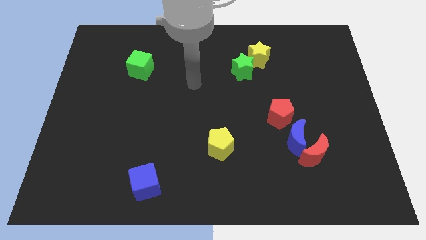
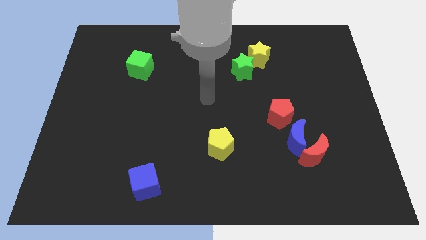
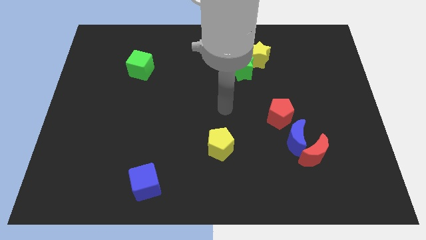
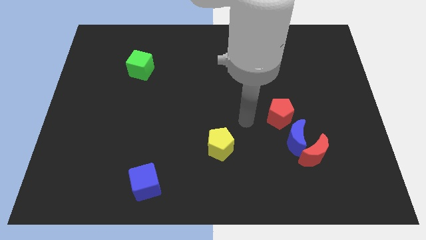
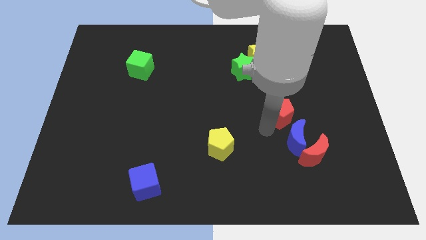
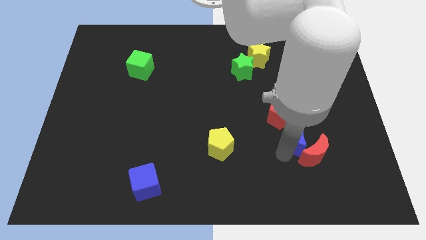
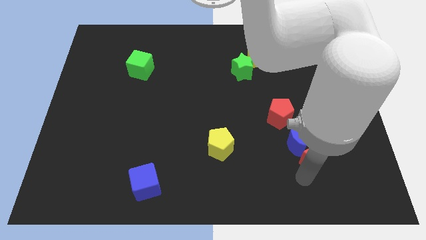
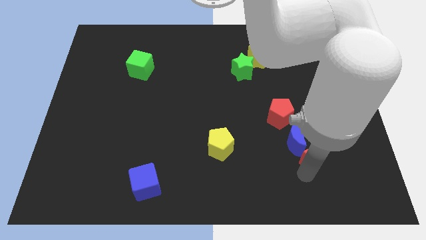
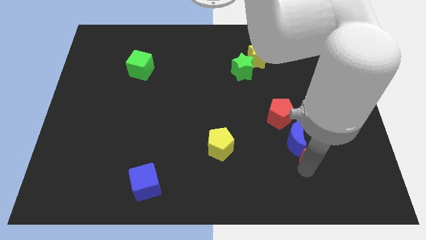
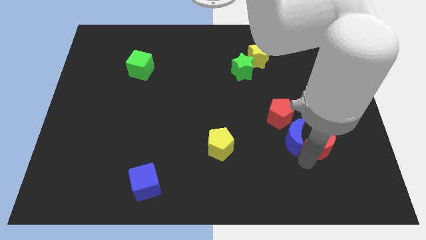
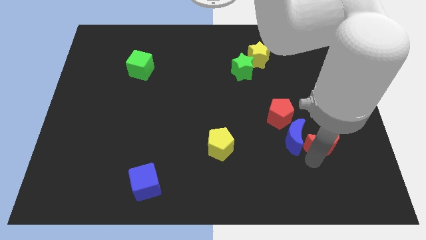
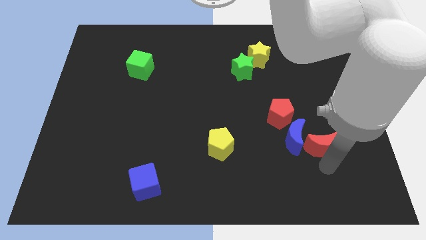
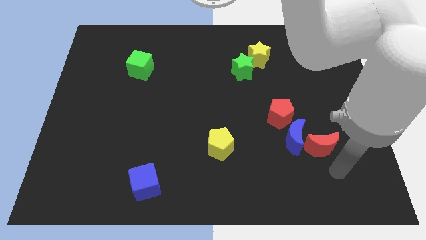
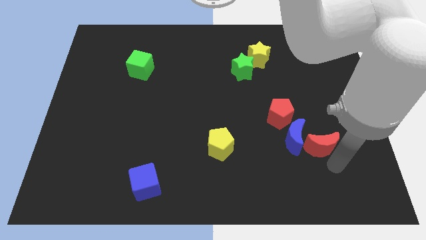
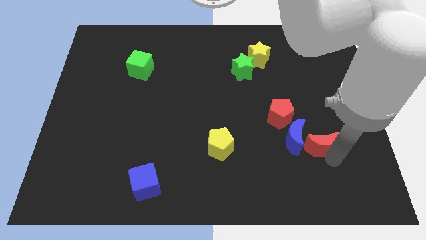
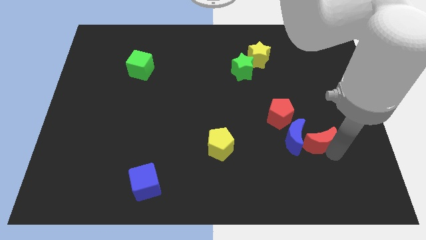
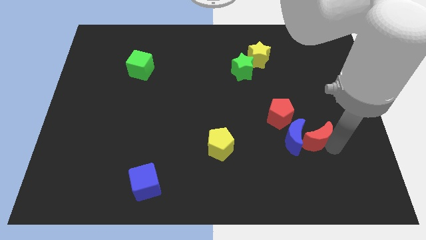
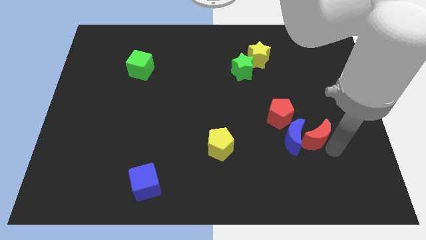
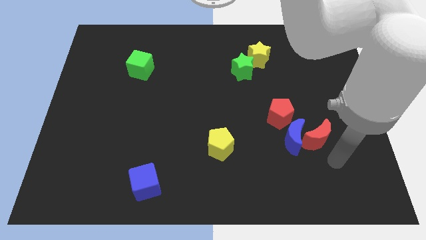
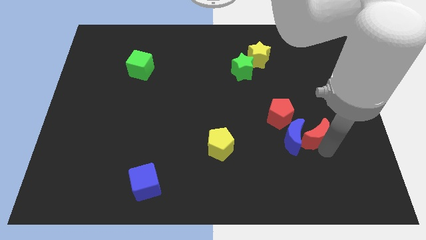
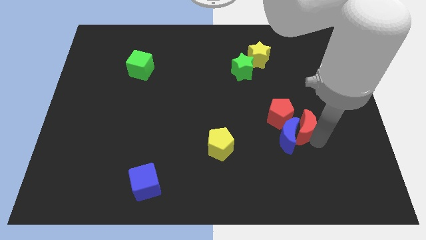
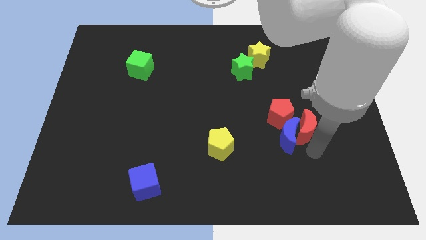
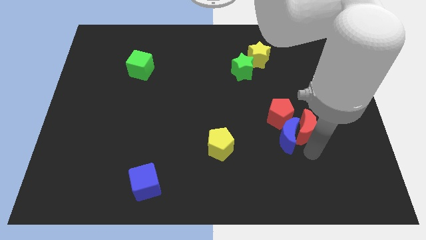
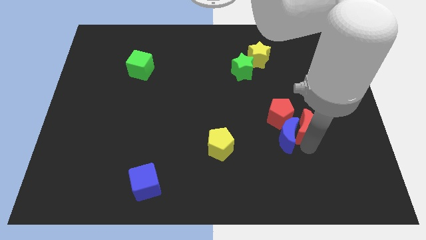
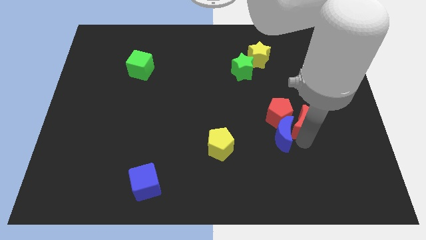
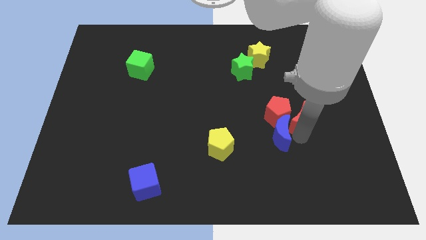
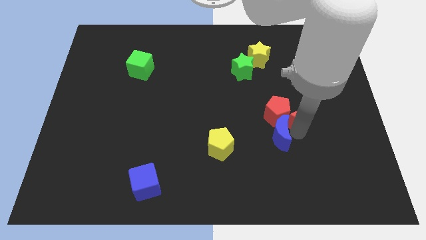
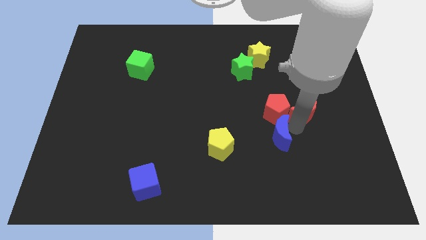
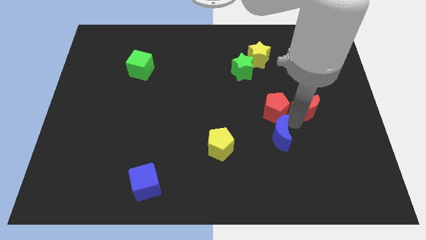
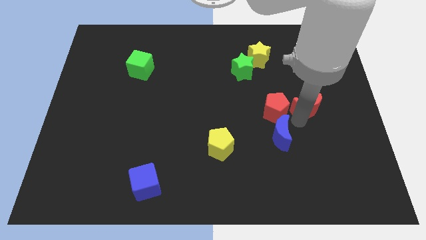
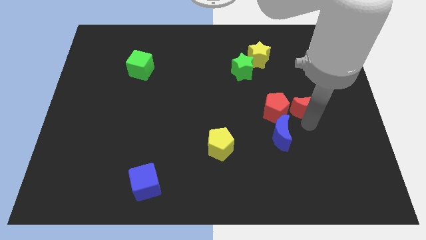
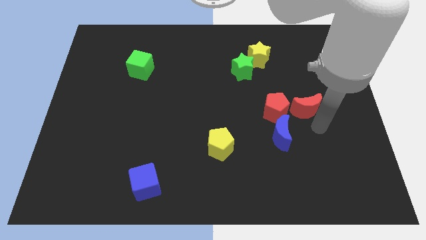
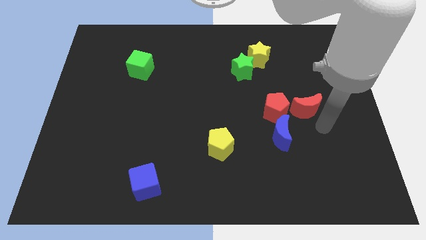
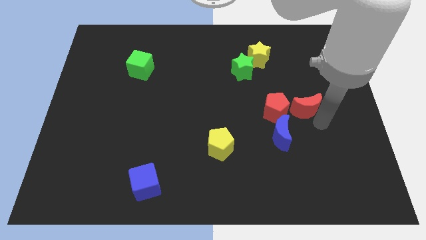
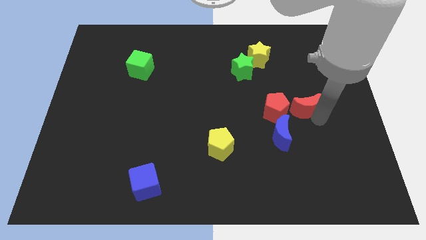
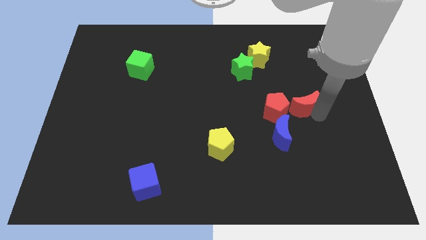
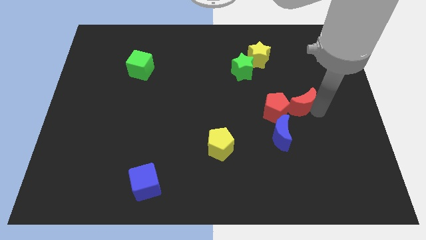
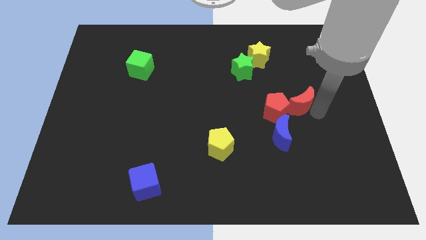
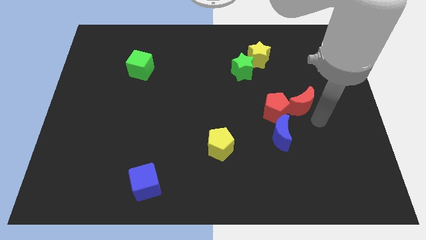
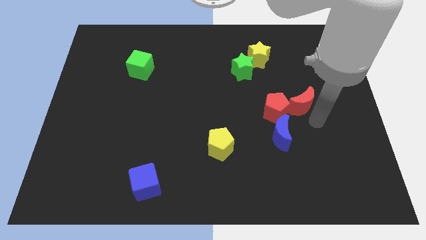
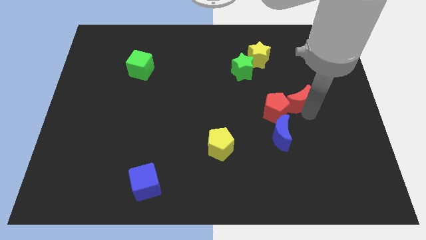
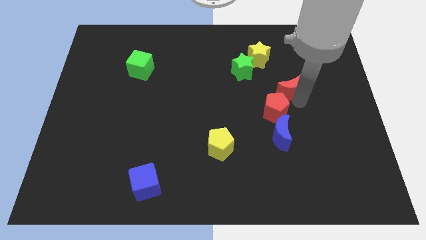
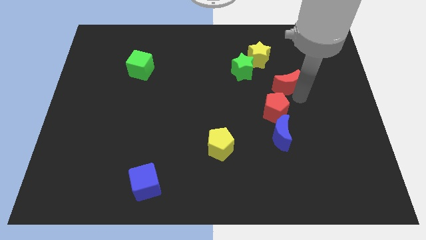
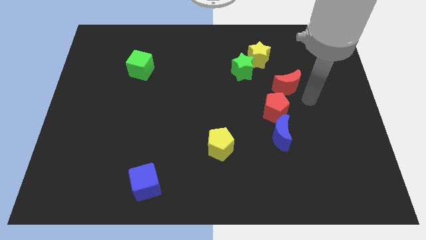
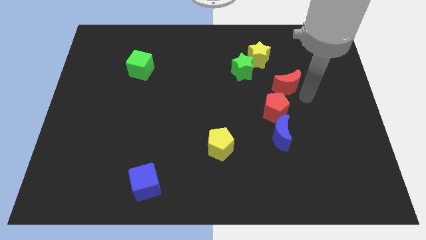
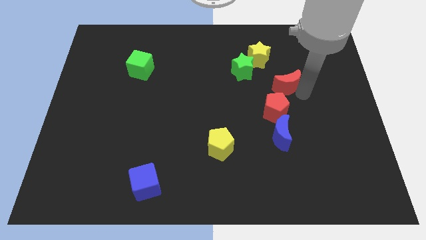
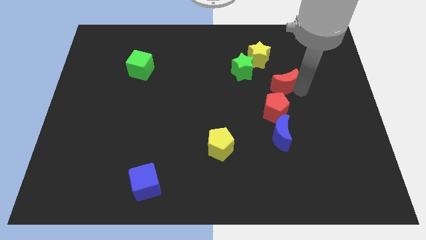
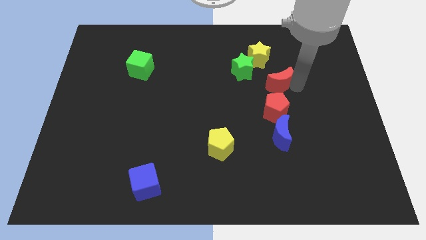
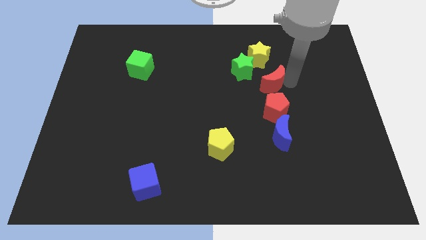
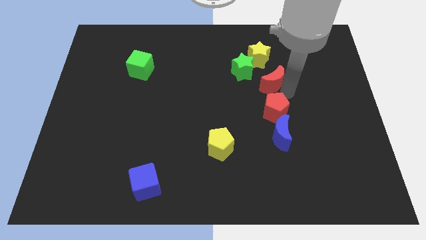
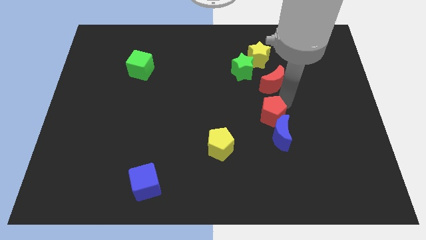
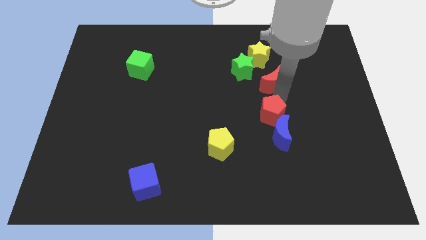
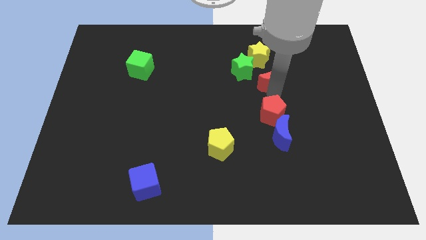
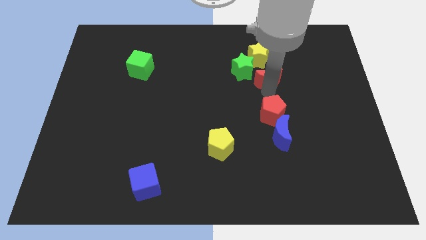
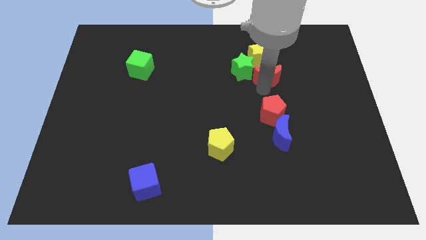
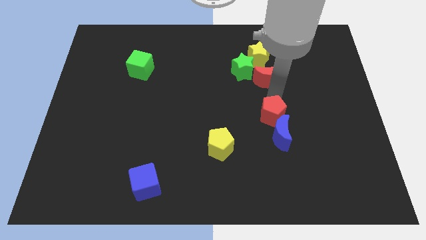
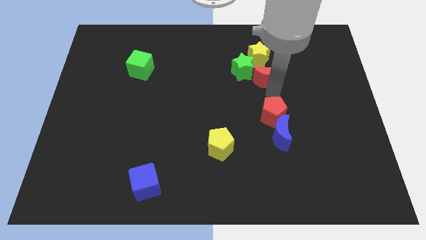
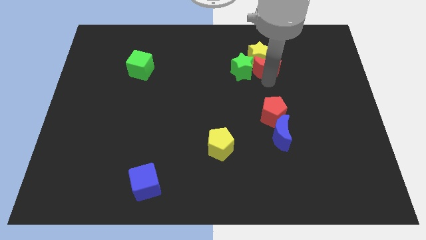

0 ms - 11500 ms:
push the red moon to the yellow star
